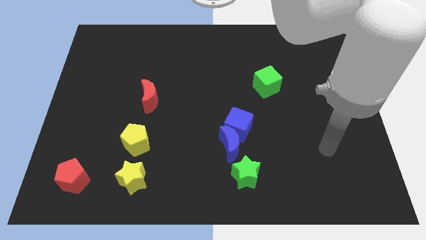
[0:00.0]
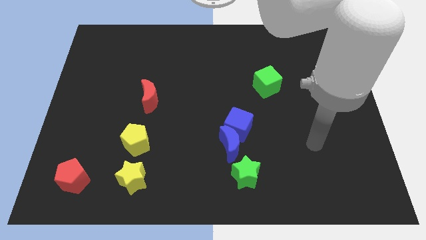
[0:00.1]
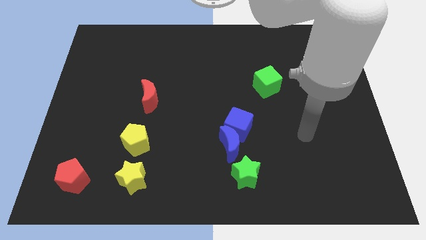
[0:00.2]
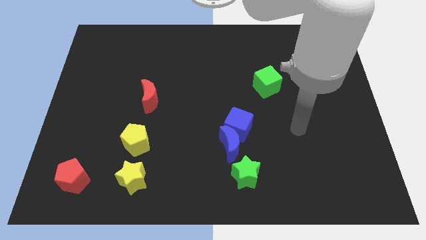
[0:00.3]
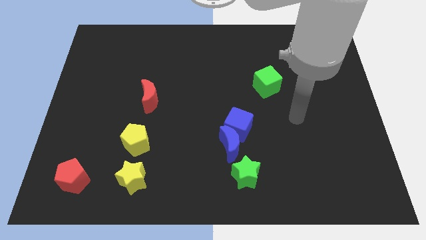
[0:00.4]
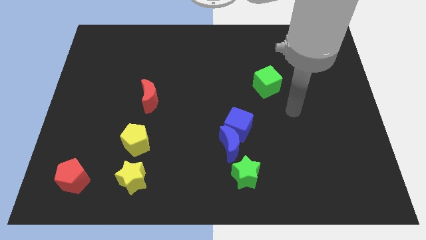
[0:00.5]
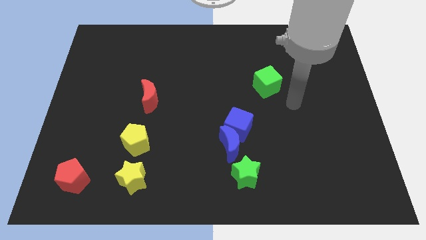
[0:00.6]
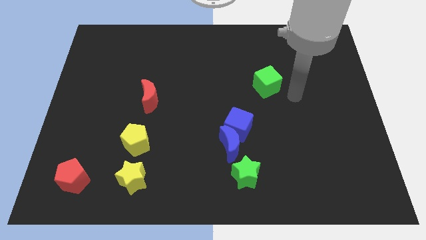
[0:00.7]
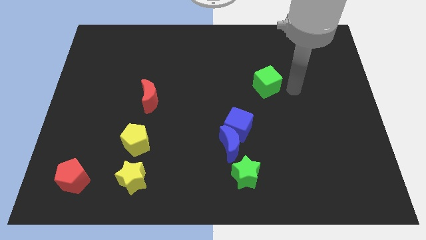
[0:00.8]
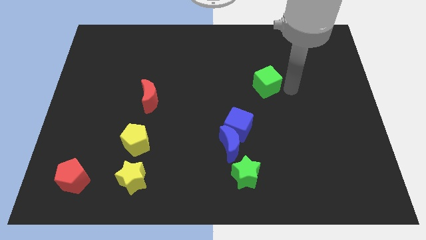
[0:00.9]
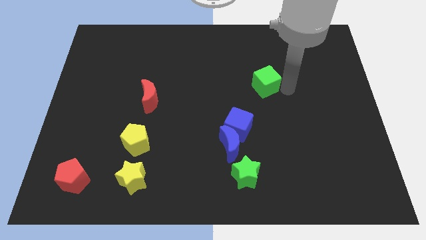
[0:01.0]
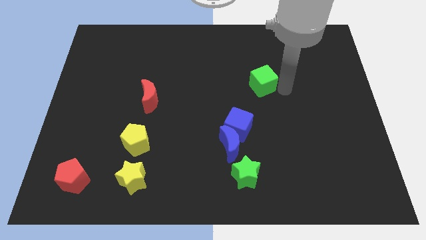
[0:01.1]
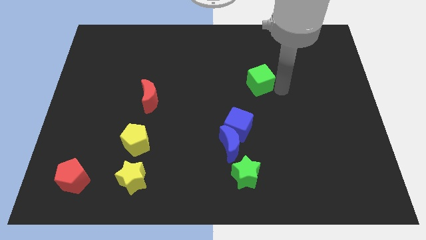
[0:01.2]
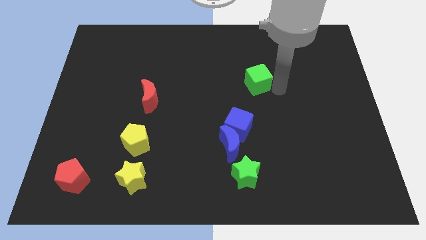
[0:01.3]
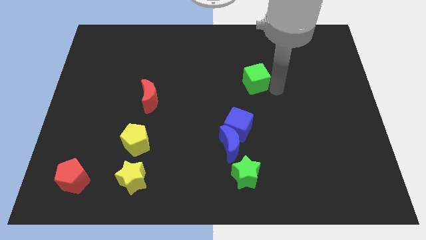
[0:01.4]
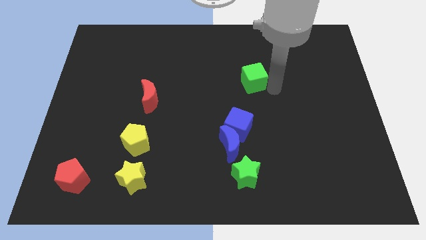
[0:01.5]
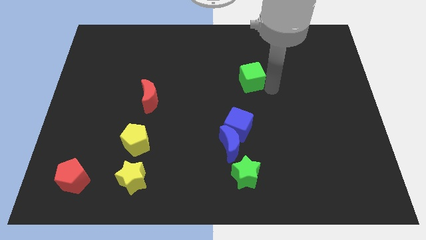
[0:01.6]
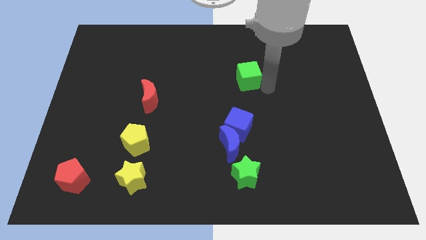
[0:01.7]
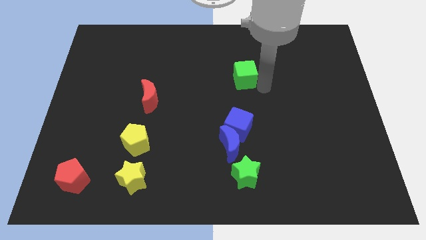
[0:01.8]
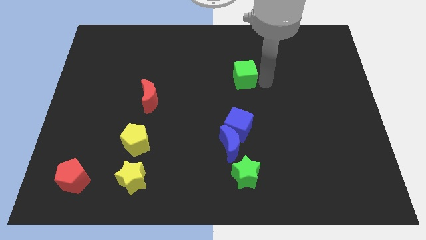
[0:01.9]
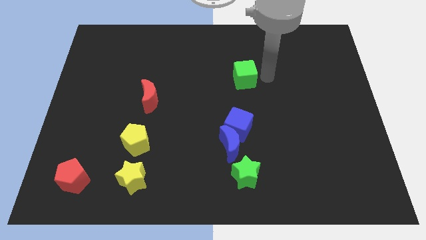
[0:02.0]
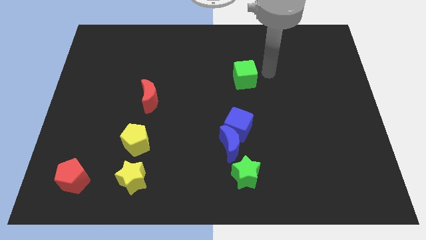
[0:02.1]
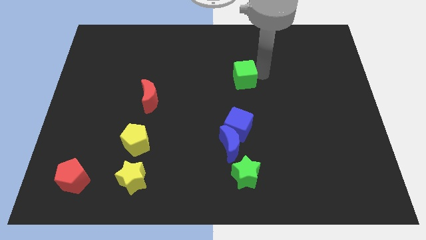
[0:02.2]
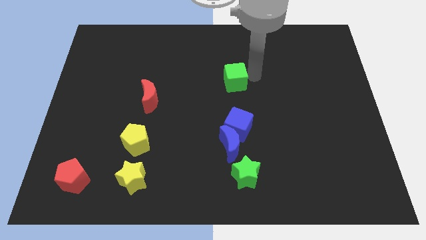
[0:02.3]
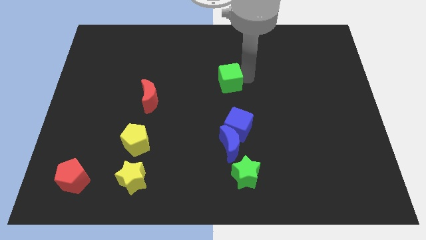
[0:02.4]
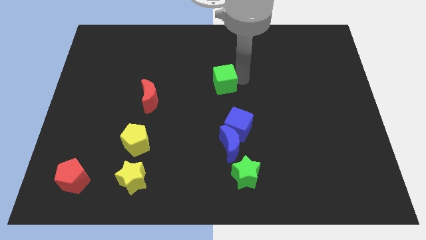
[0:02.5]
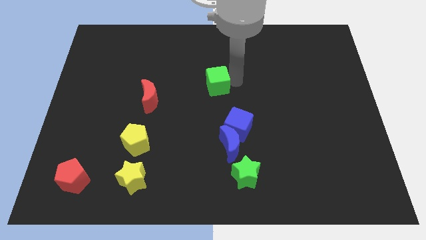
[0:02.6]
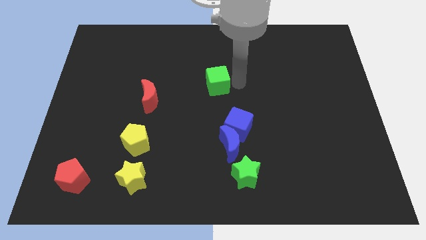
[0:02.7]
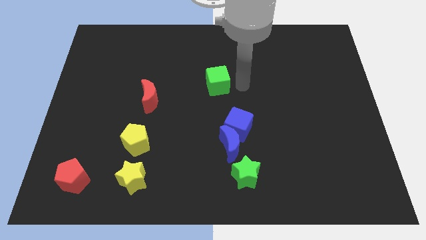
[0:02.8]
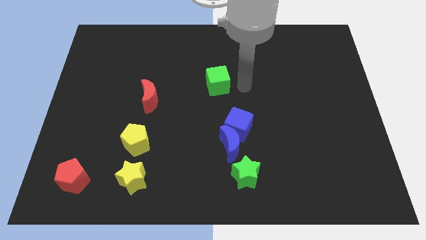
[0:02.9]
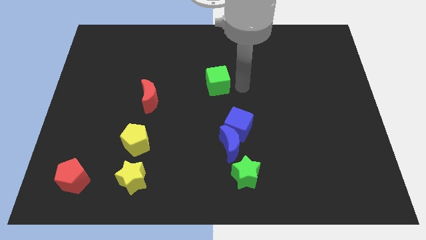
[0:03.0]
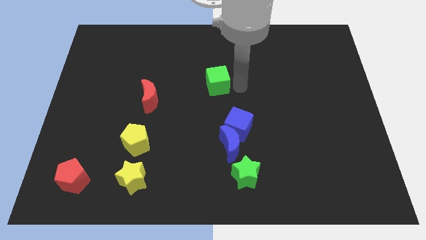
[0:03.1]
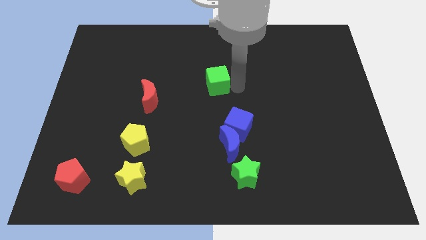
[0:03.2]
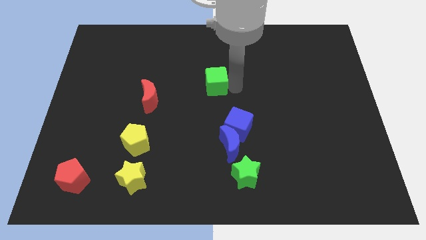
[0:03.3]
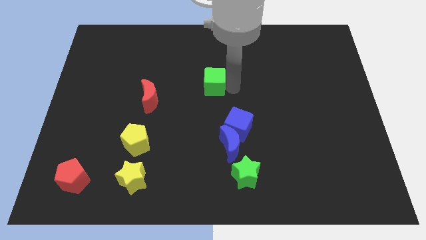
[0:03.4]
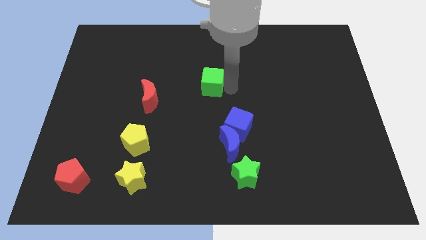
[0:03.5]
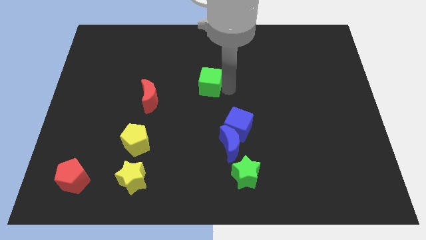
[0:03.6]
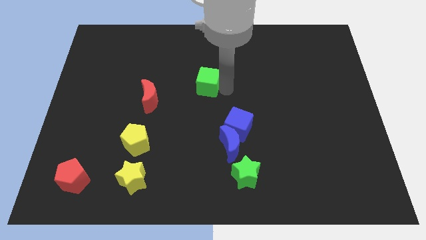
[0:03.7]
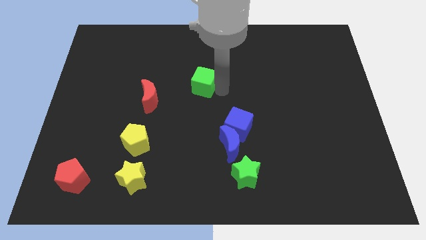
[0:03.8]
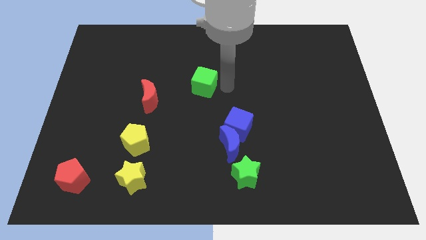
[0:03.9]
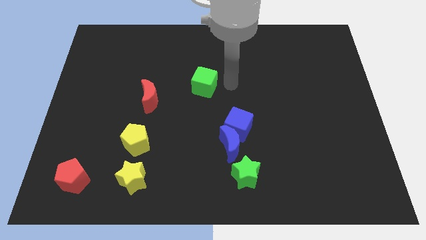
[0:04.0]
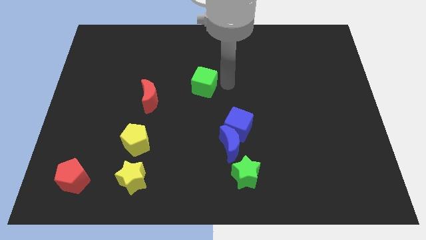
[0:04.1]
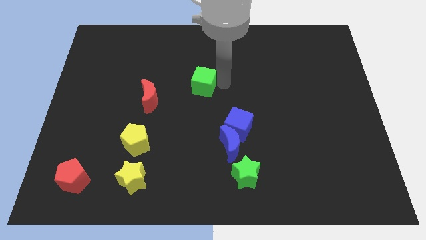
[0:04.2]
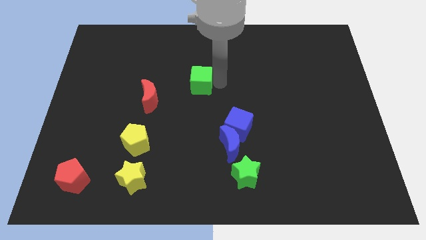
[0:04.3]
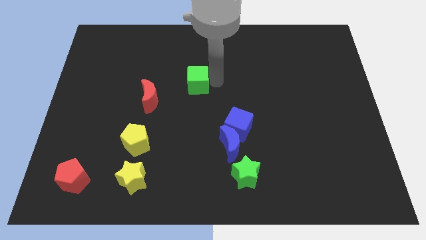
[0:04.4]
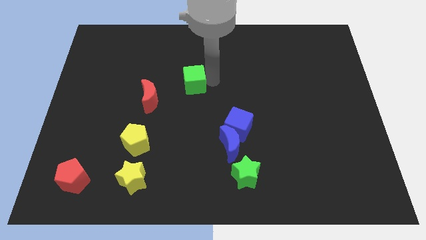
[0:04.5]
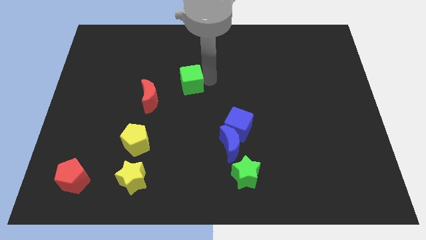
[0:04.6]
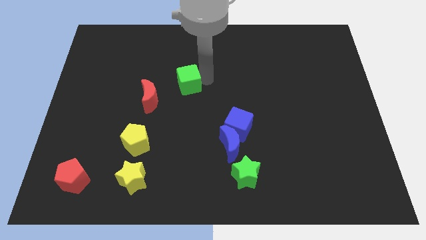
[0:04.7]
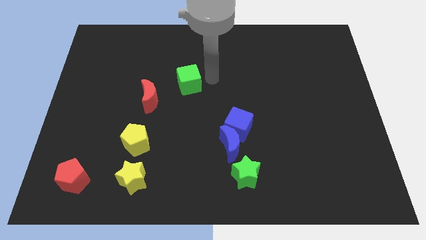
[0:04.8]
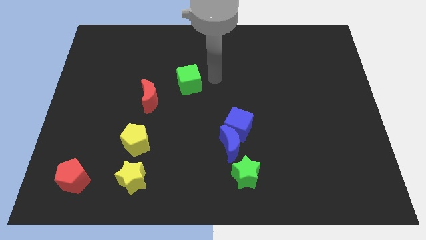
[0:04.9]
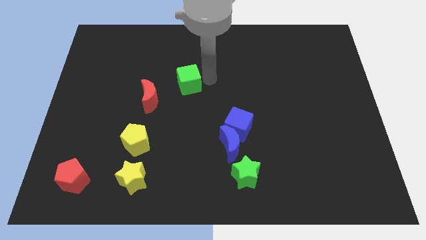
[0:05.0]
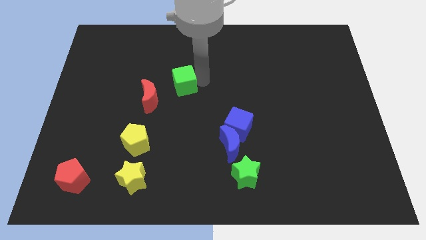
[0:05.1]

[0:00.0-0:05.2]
move the green cube to the left

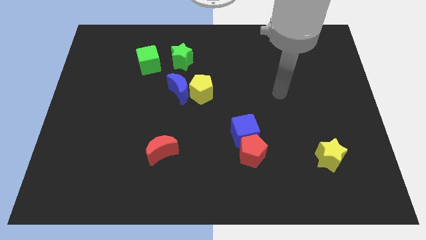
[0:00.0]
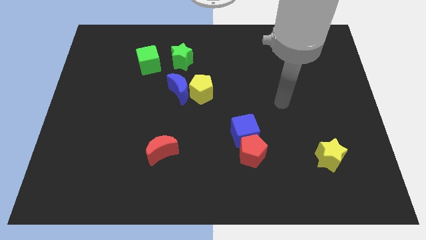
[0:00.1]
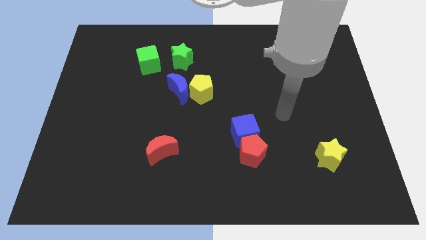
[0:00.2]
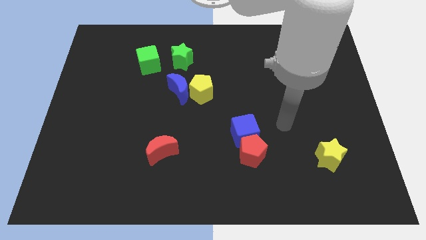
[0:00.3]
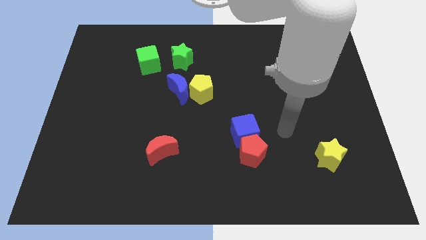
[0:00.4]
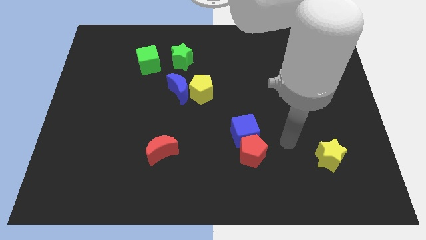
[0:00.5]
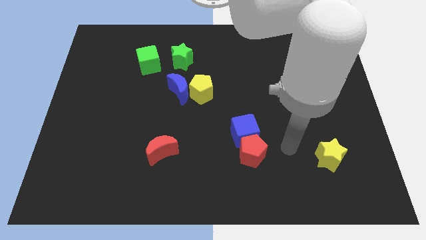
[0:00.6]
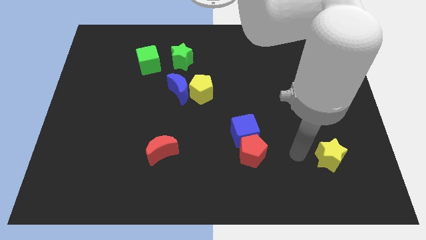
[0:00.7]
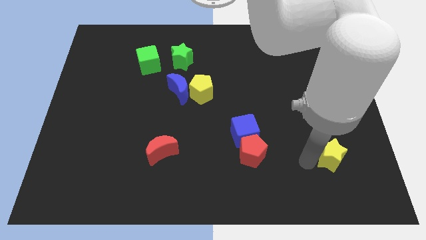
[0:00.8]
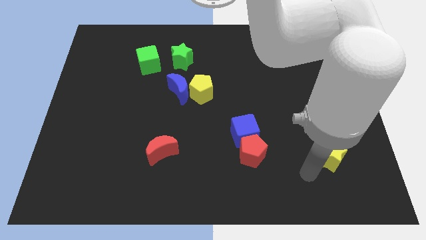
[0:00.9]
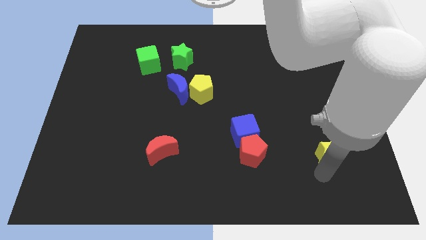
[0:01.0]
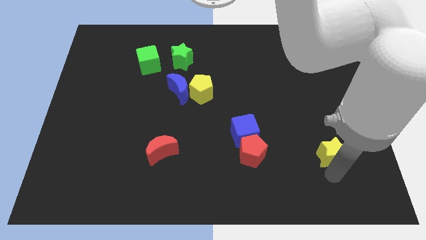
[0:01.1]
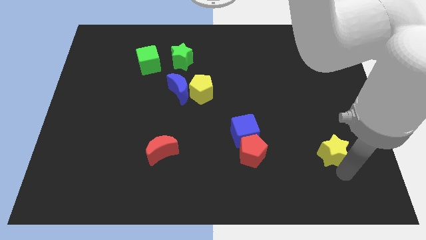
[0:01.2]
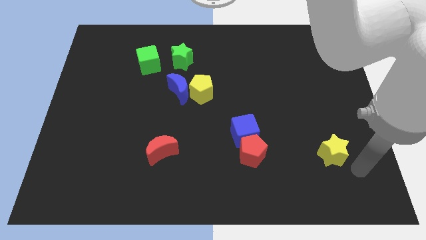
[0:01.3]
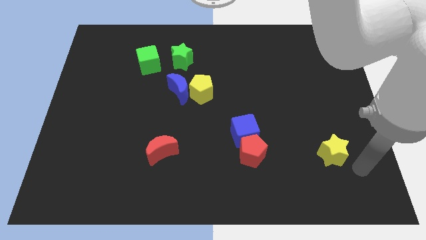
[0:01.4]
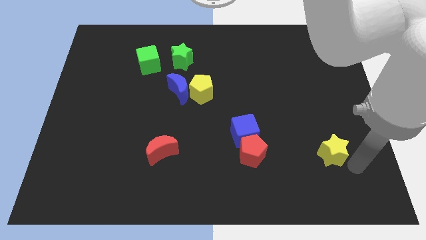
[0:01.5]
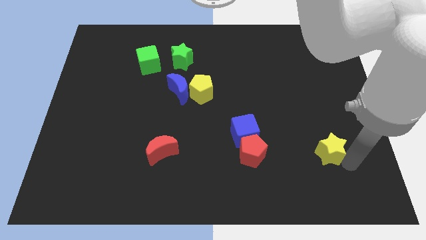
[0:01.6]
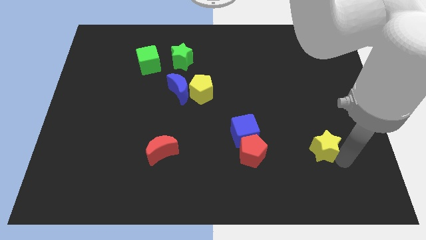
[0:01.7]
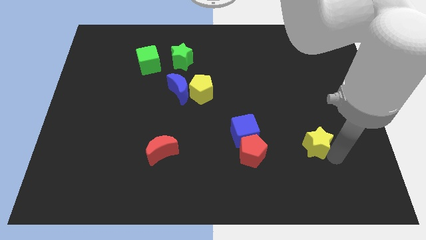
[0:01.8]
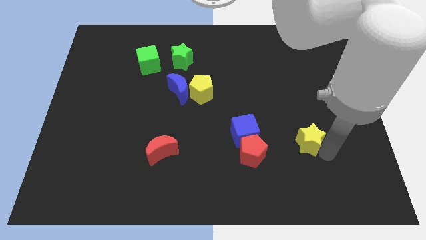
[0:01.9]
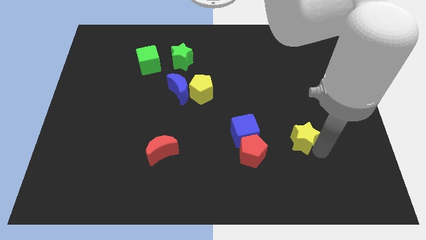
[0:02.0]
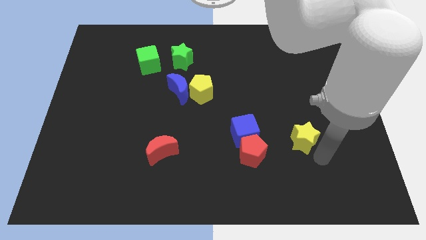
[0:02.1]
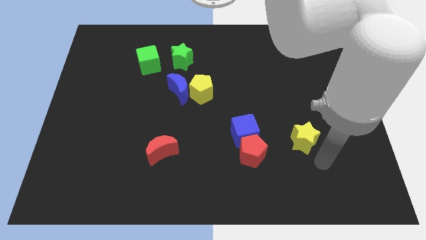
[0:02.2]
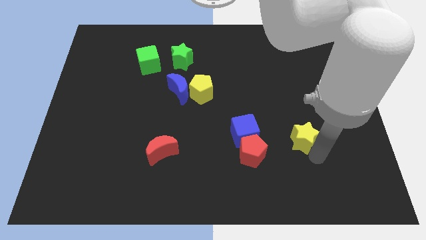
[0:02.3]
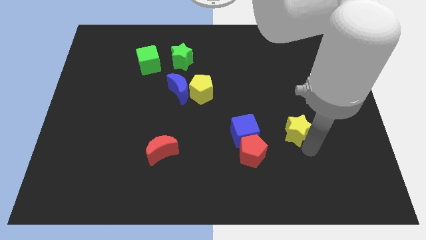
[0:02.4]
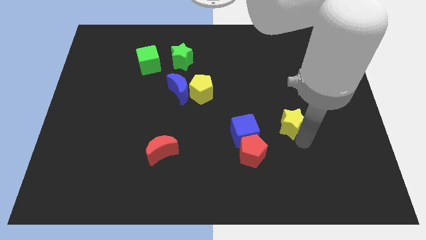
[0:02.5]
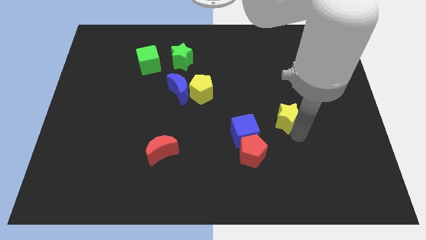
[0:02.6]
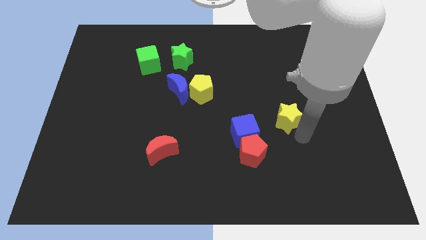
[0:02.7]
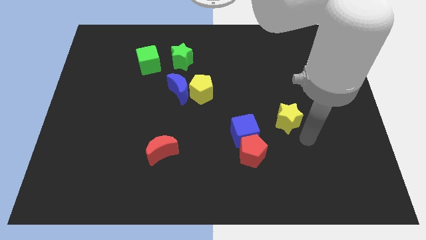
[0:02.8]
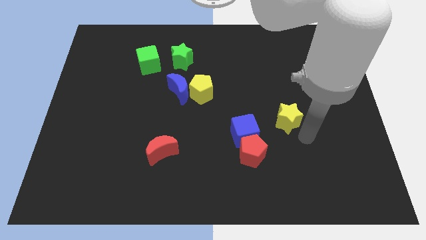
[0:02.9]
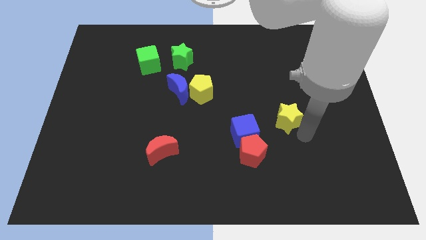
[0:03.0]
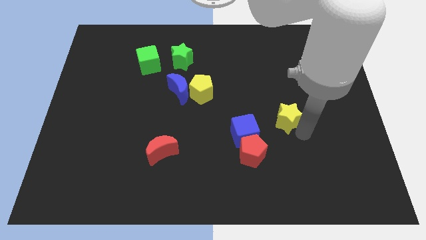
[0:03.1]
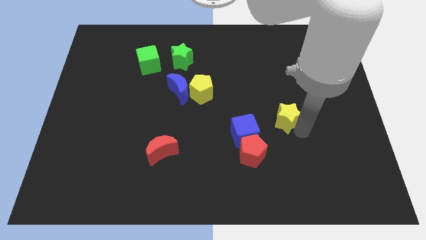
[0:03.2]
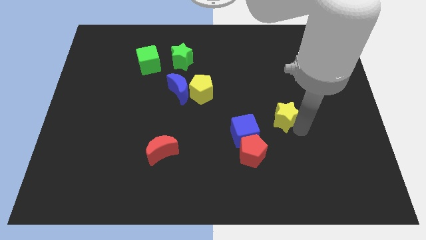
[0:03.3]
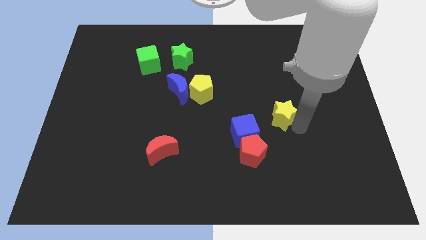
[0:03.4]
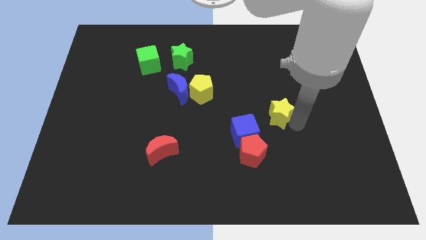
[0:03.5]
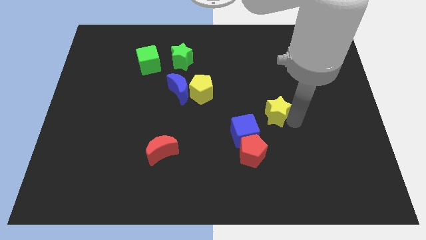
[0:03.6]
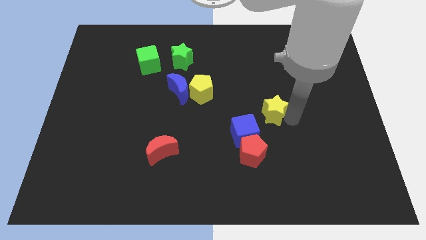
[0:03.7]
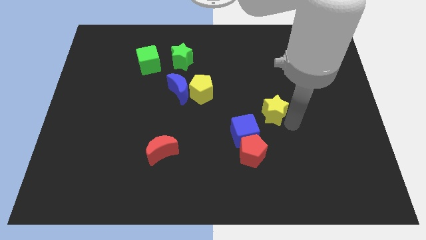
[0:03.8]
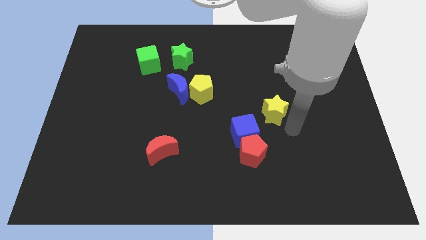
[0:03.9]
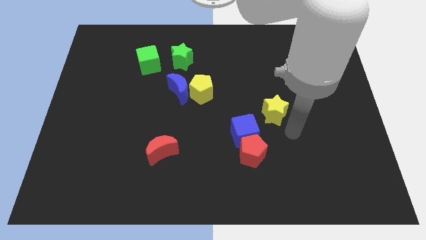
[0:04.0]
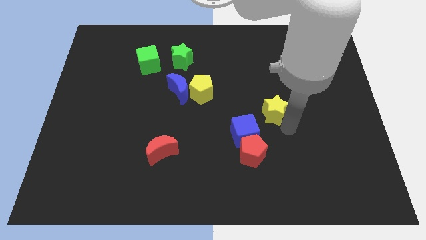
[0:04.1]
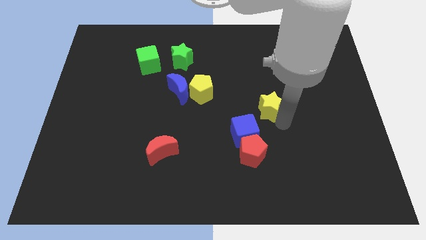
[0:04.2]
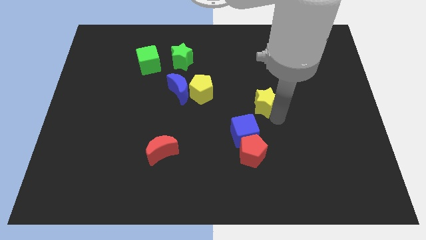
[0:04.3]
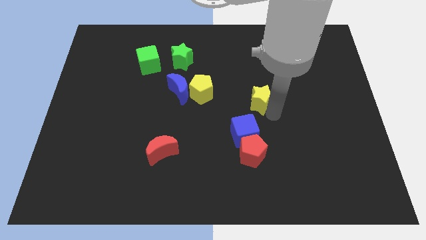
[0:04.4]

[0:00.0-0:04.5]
move the yellow star diagonally upwards and left
